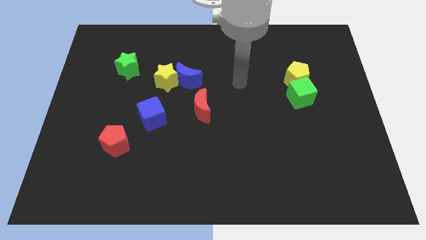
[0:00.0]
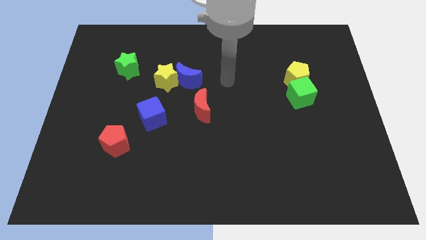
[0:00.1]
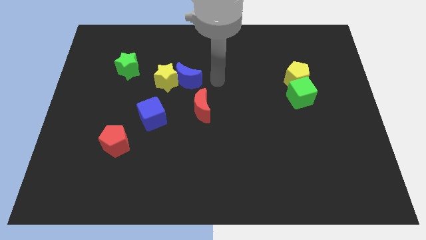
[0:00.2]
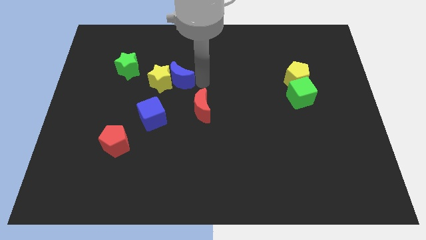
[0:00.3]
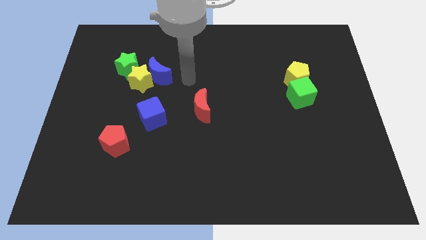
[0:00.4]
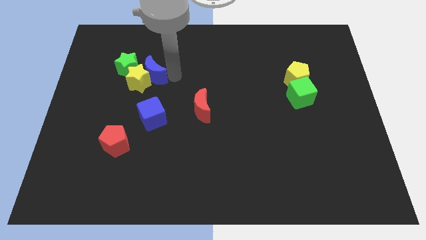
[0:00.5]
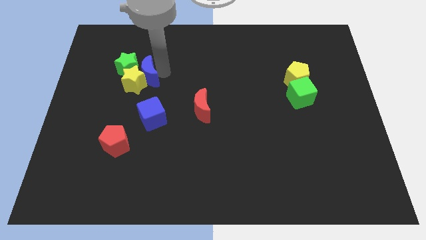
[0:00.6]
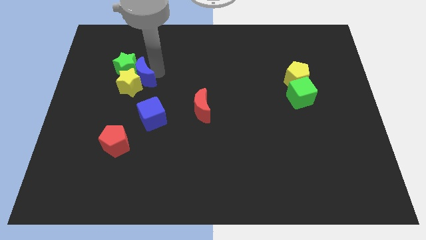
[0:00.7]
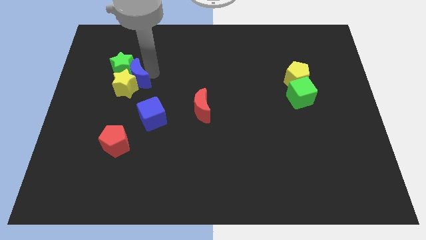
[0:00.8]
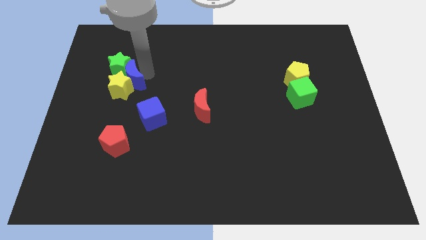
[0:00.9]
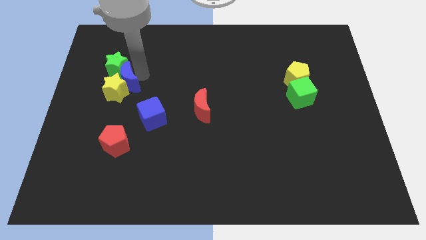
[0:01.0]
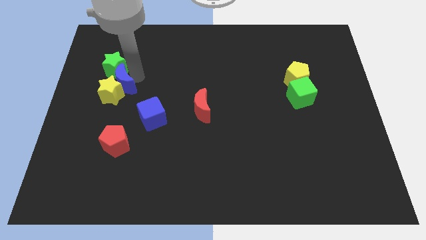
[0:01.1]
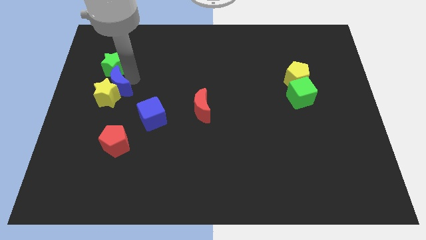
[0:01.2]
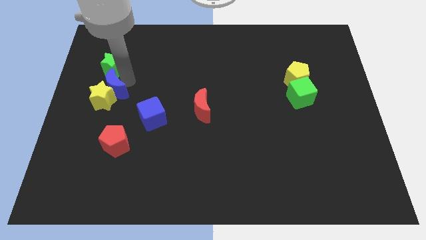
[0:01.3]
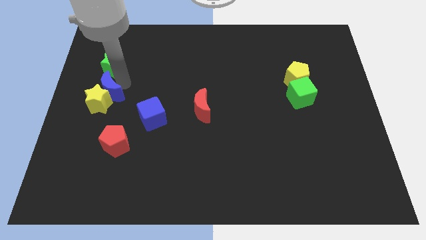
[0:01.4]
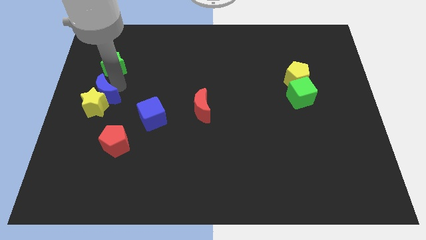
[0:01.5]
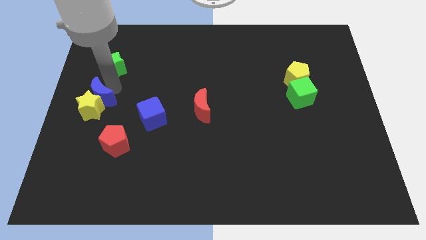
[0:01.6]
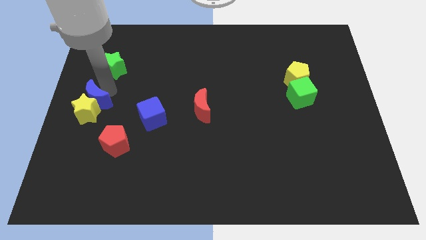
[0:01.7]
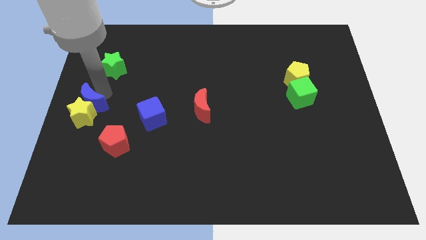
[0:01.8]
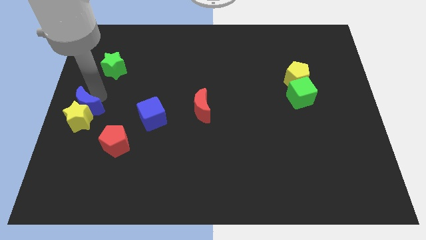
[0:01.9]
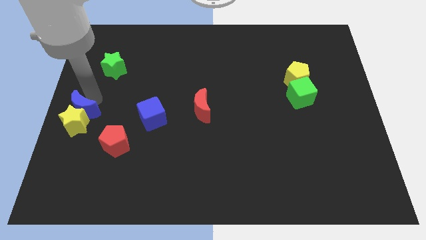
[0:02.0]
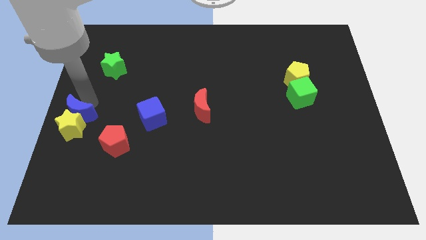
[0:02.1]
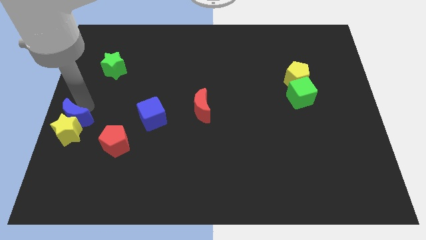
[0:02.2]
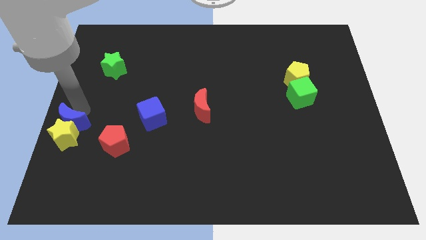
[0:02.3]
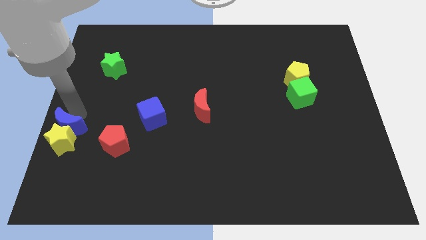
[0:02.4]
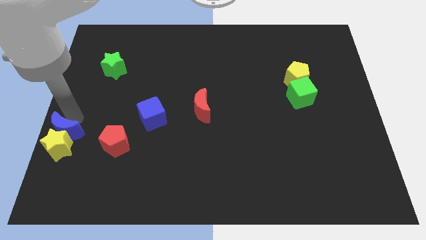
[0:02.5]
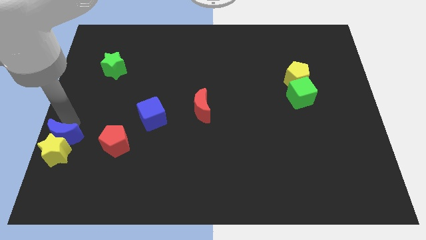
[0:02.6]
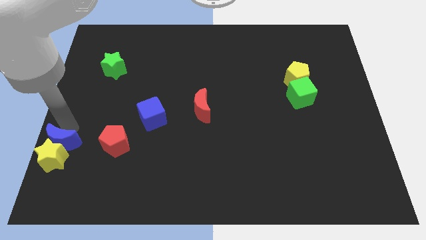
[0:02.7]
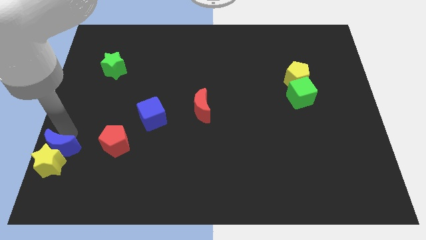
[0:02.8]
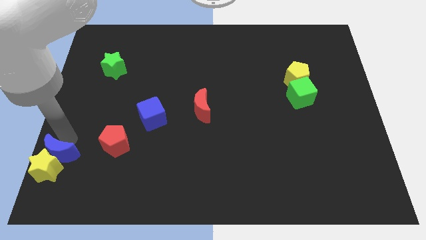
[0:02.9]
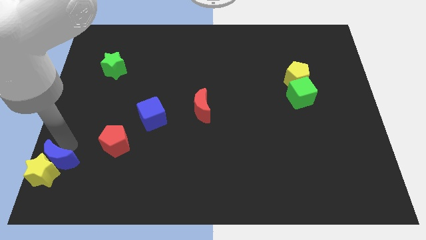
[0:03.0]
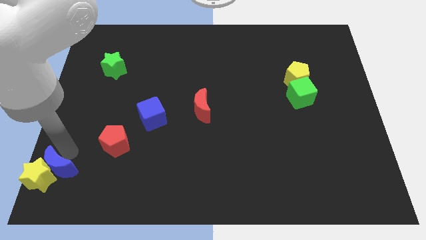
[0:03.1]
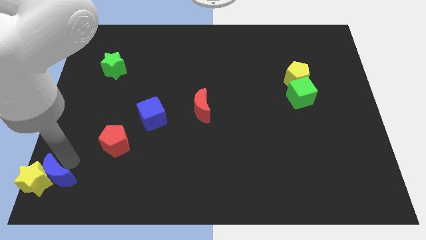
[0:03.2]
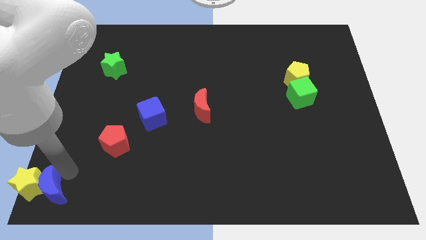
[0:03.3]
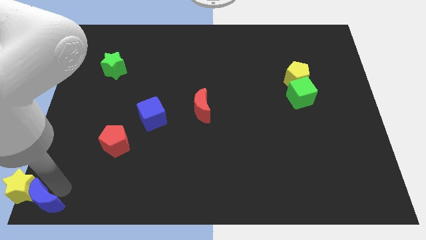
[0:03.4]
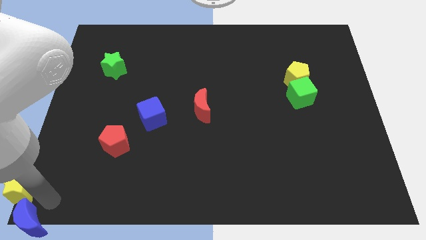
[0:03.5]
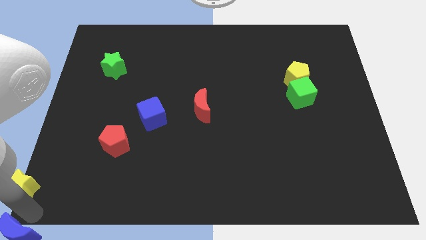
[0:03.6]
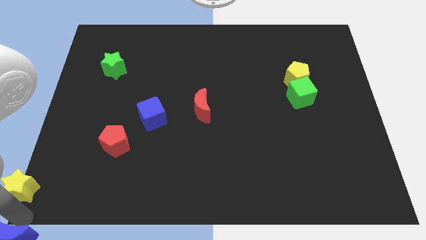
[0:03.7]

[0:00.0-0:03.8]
pull the yellow star apart from the blue moon

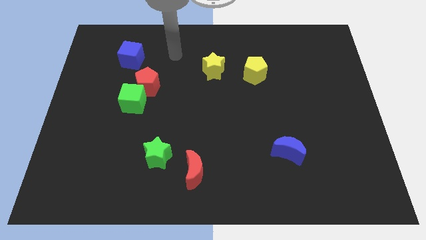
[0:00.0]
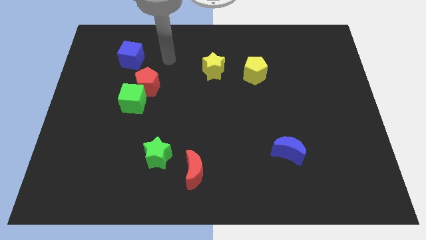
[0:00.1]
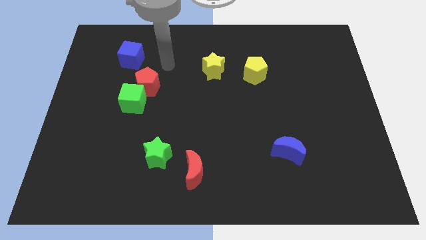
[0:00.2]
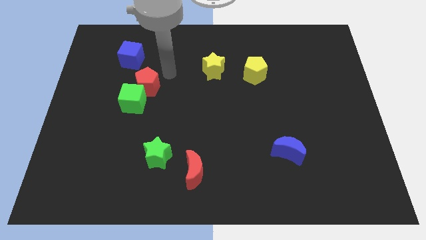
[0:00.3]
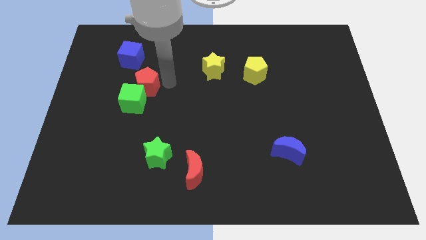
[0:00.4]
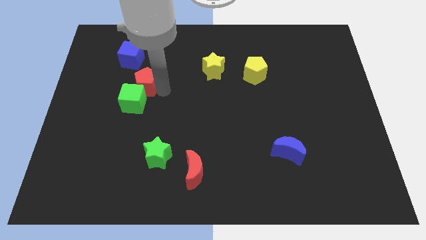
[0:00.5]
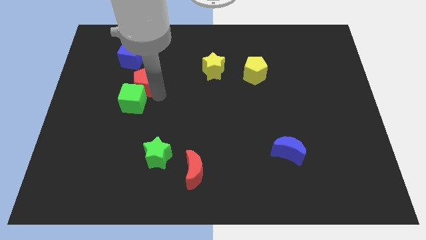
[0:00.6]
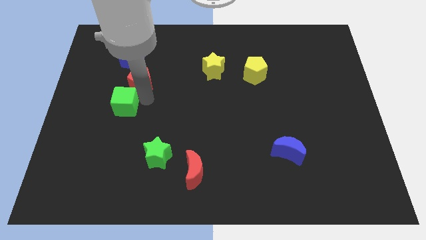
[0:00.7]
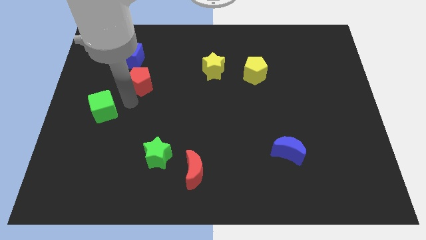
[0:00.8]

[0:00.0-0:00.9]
pull the red pentagon apart from the green cube

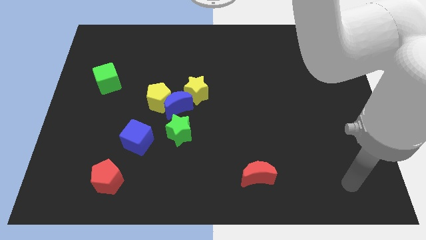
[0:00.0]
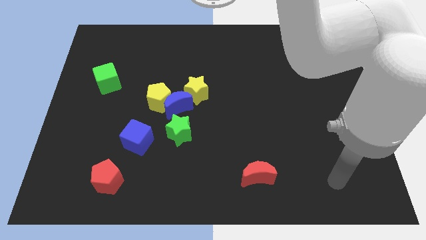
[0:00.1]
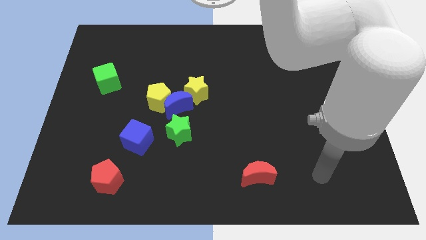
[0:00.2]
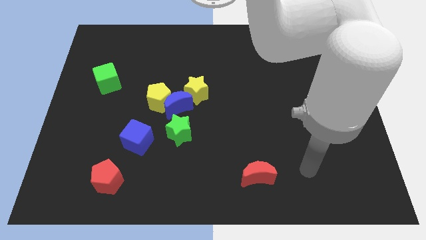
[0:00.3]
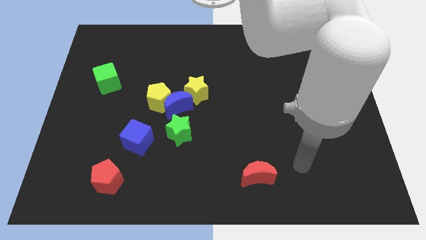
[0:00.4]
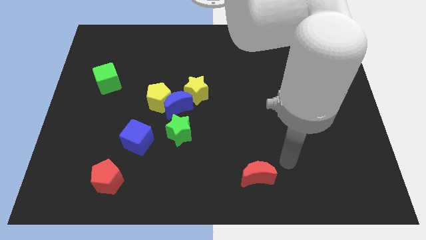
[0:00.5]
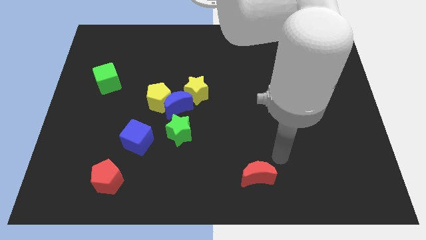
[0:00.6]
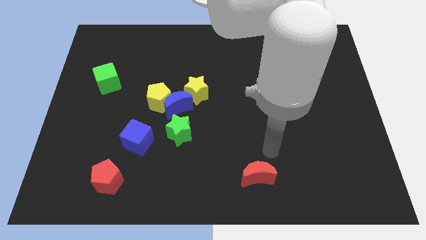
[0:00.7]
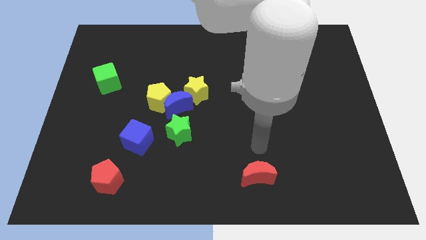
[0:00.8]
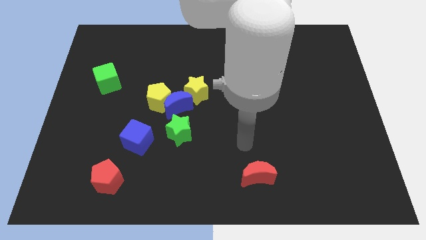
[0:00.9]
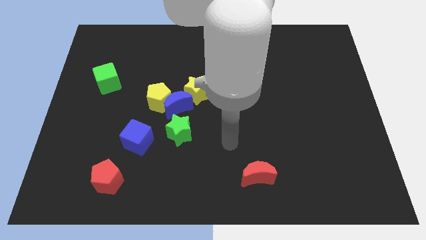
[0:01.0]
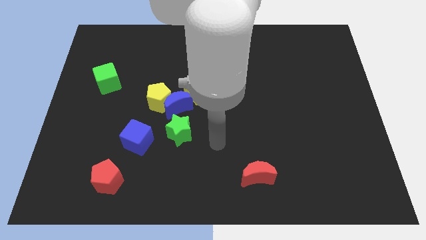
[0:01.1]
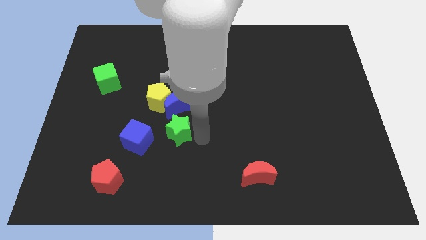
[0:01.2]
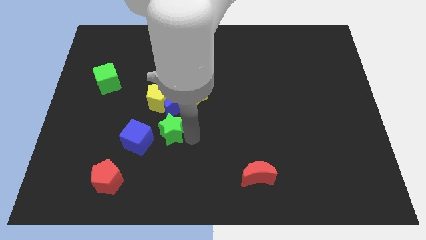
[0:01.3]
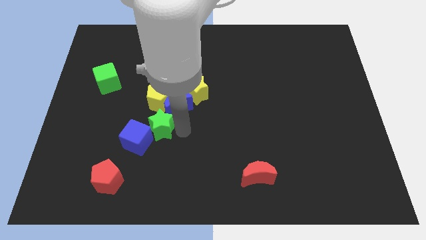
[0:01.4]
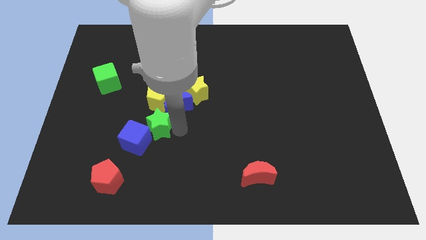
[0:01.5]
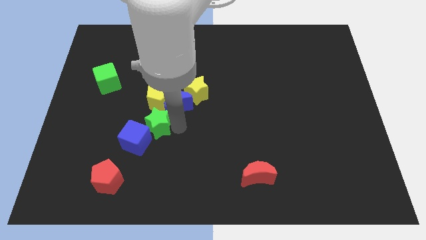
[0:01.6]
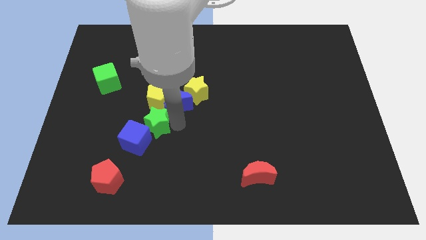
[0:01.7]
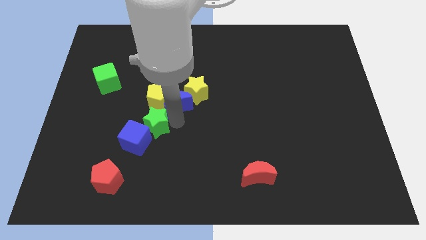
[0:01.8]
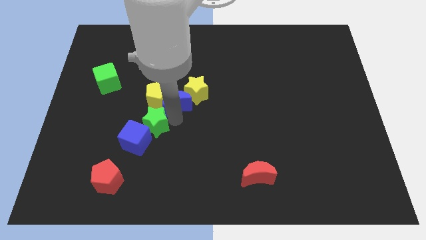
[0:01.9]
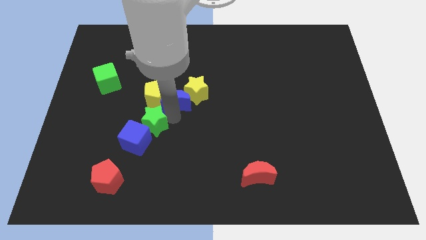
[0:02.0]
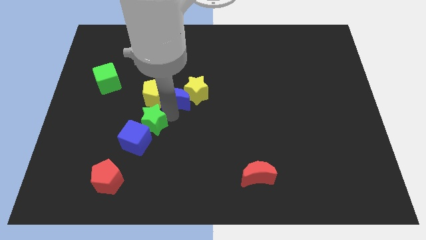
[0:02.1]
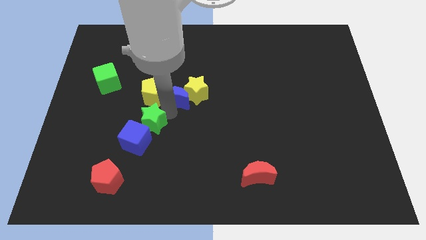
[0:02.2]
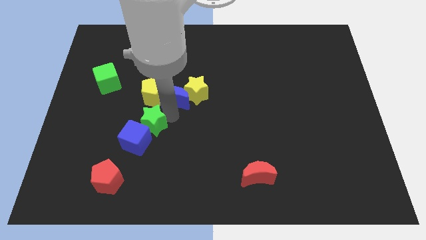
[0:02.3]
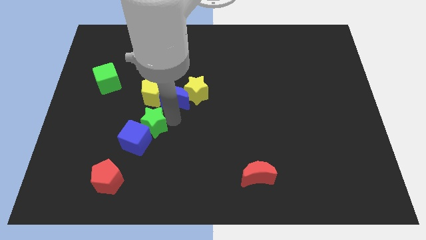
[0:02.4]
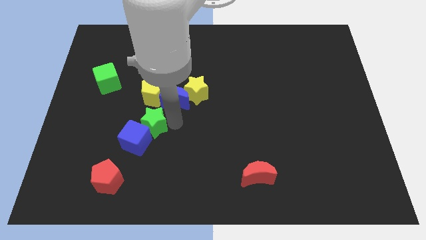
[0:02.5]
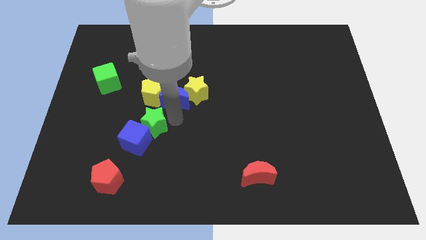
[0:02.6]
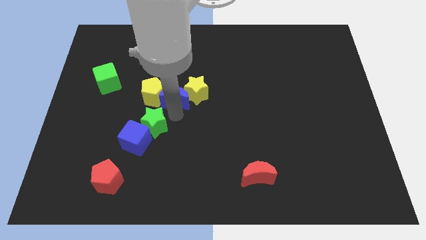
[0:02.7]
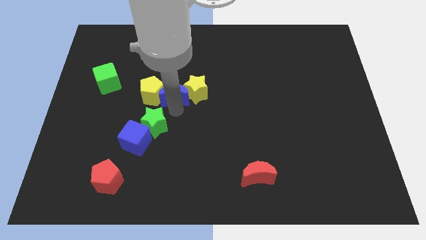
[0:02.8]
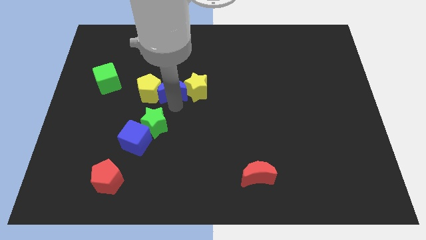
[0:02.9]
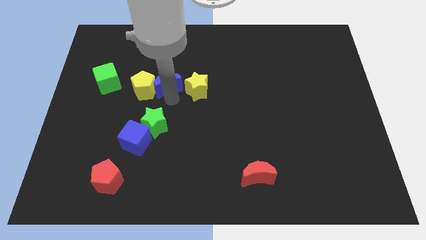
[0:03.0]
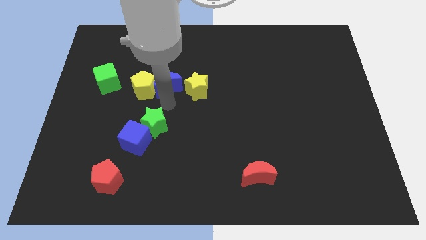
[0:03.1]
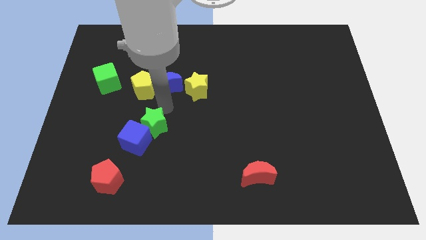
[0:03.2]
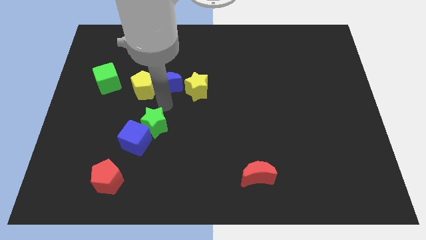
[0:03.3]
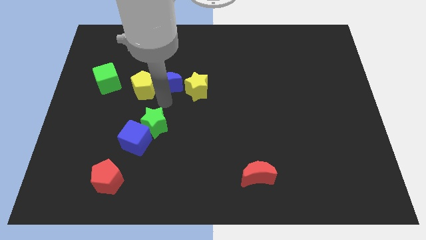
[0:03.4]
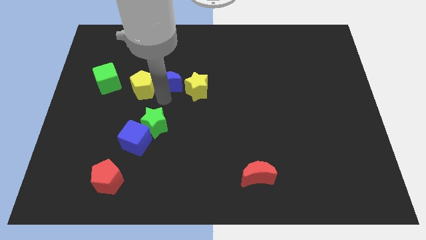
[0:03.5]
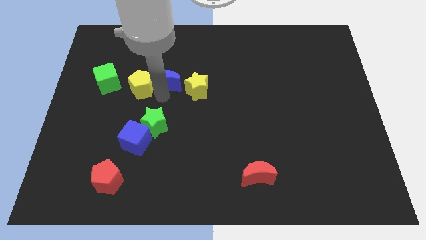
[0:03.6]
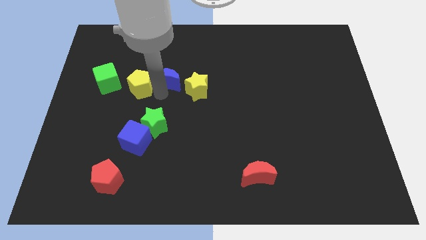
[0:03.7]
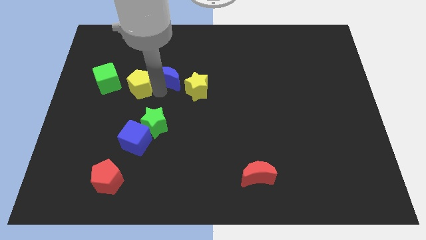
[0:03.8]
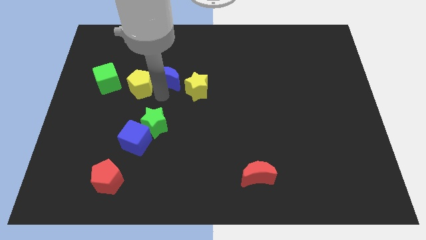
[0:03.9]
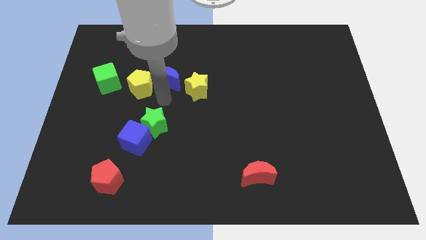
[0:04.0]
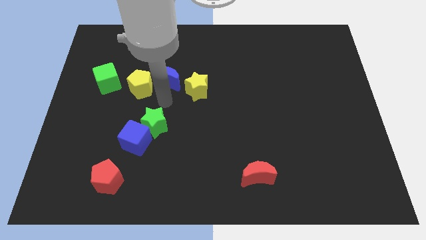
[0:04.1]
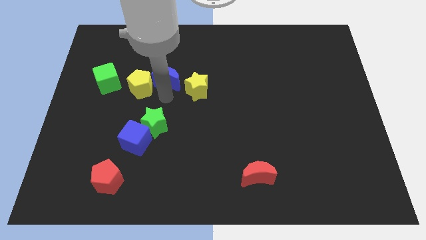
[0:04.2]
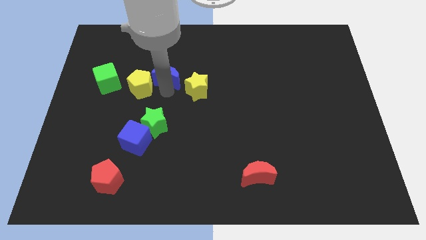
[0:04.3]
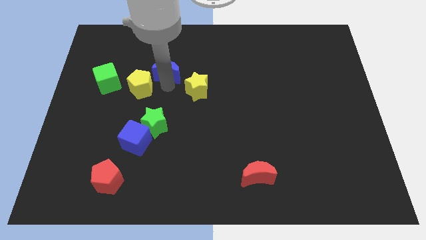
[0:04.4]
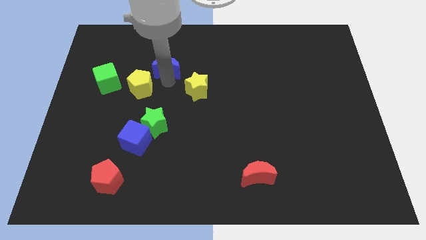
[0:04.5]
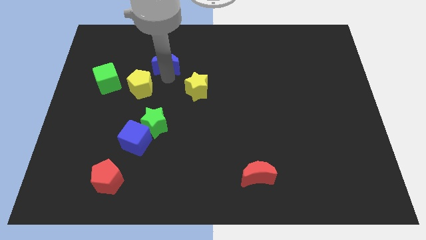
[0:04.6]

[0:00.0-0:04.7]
move the blue moon away from the clump
